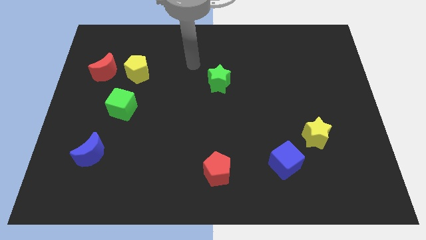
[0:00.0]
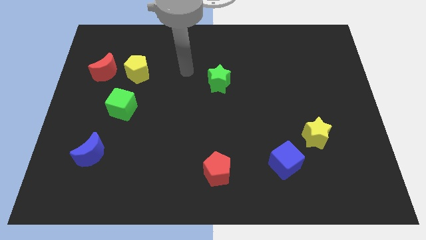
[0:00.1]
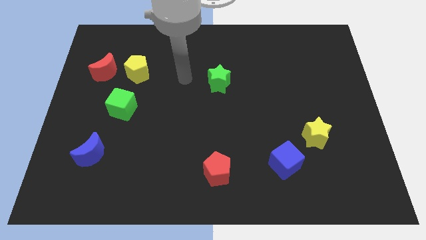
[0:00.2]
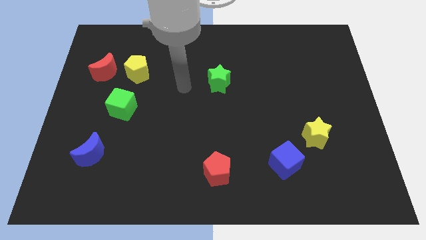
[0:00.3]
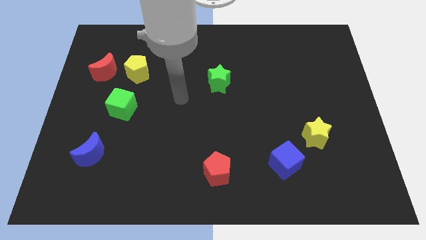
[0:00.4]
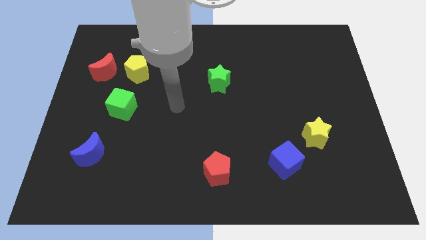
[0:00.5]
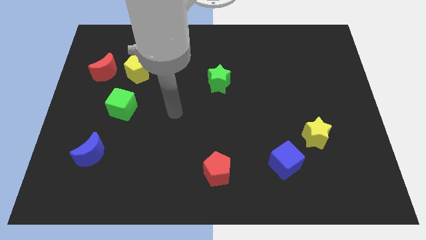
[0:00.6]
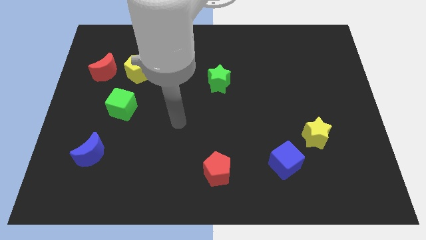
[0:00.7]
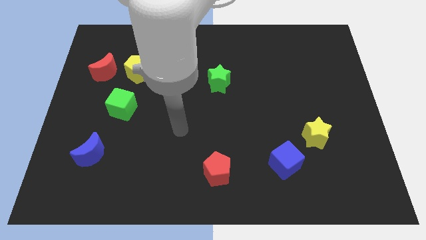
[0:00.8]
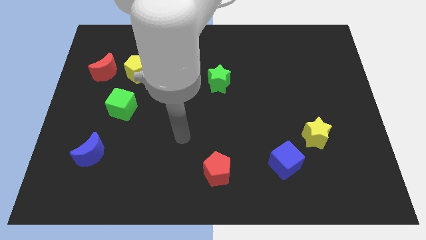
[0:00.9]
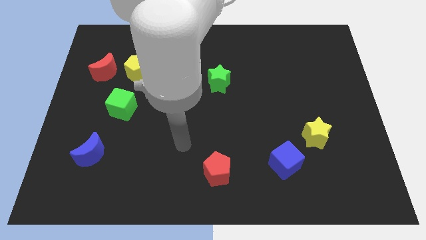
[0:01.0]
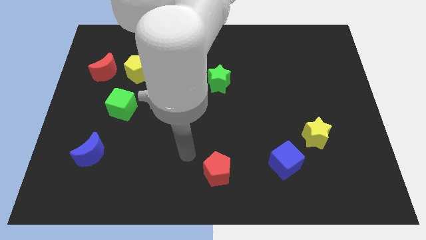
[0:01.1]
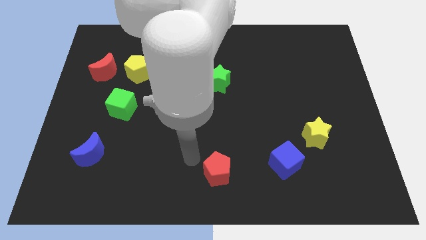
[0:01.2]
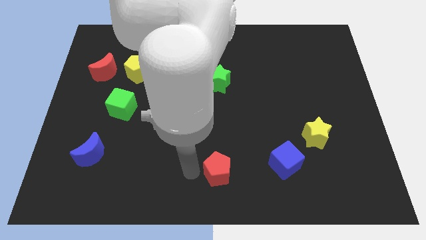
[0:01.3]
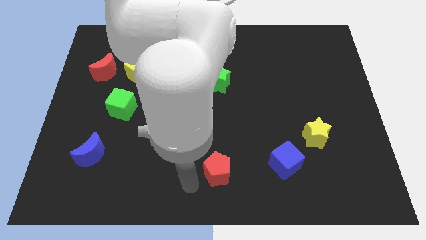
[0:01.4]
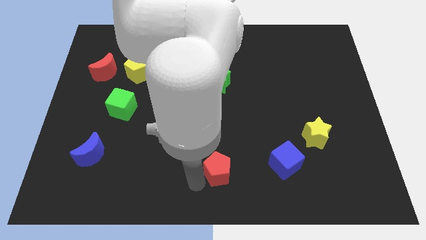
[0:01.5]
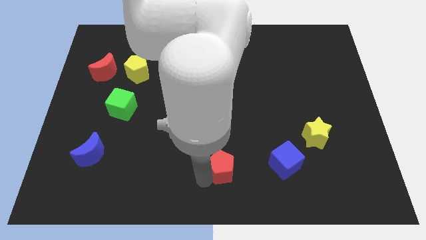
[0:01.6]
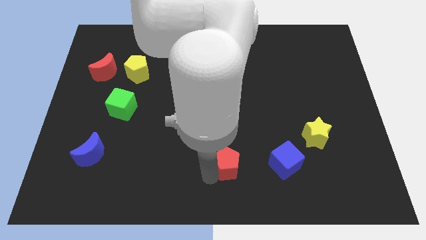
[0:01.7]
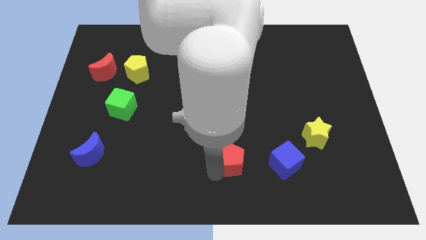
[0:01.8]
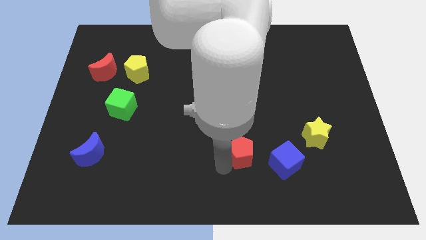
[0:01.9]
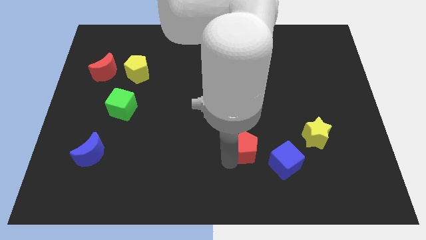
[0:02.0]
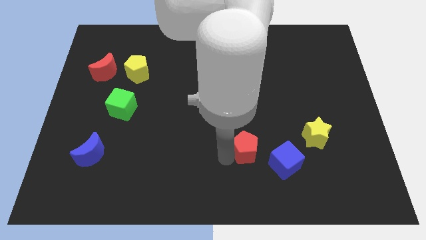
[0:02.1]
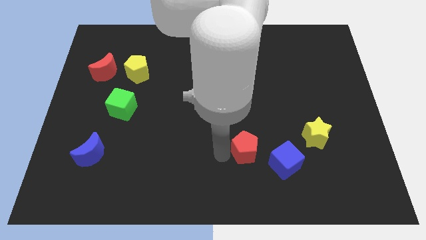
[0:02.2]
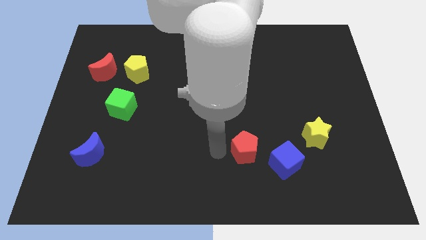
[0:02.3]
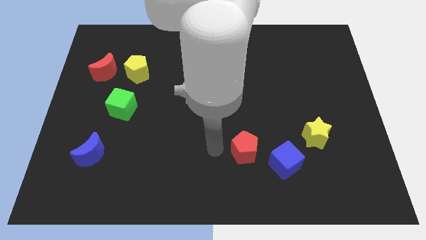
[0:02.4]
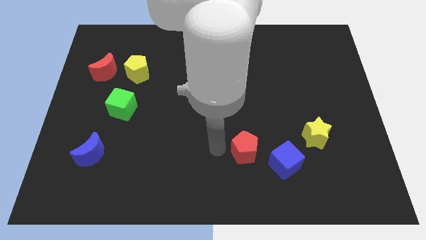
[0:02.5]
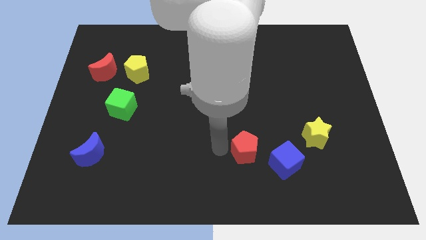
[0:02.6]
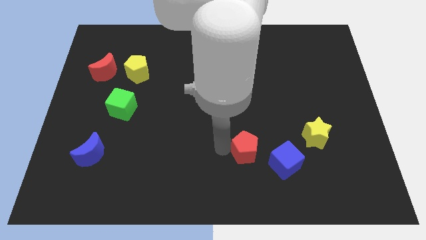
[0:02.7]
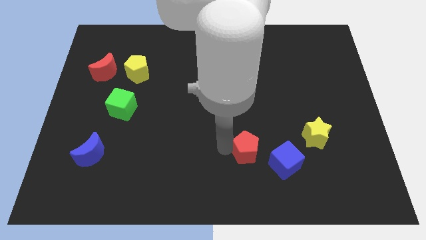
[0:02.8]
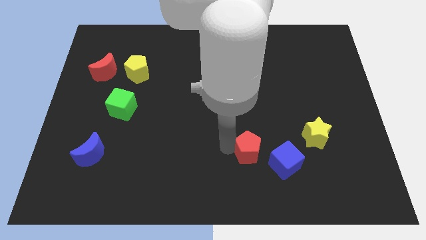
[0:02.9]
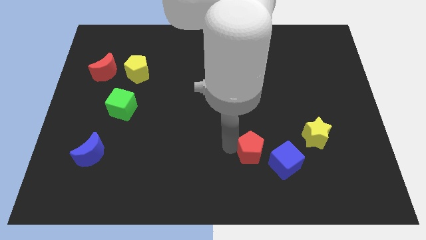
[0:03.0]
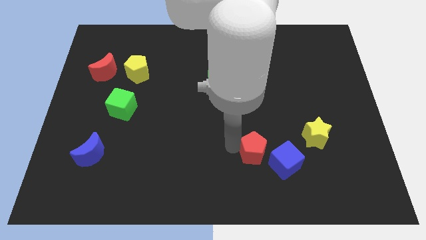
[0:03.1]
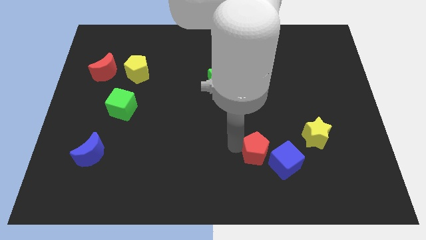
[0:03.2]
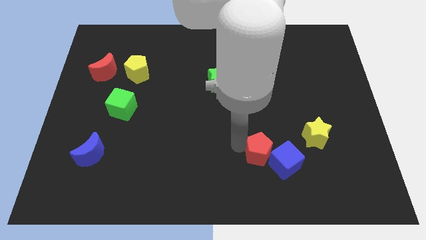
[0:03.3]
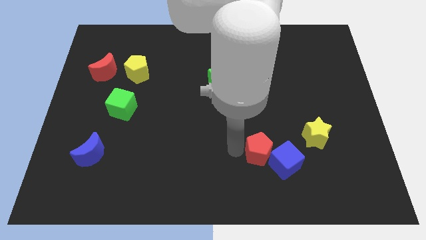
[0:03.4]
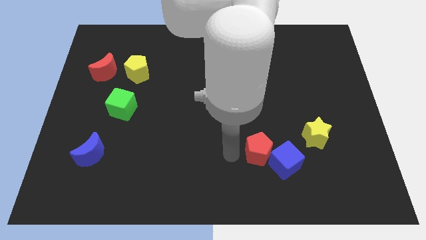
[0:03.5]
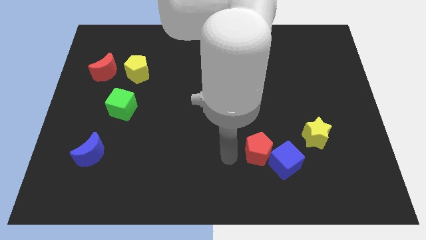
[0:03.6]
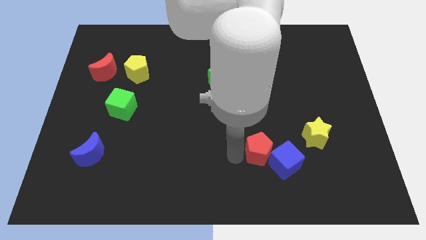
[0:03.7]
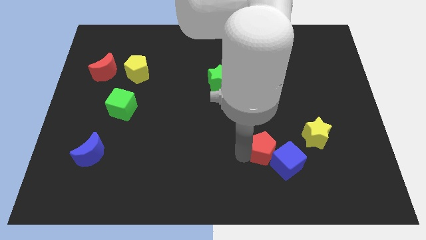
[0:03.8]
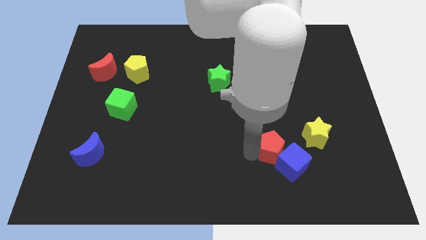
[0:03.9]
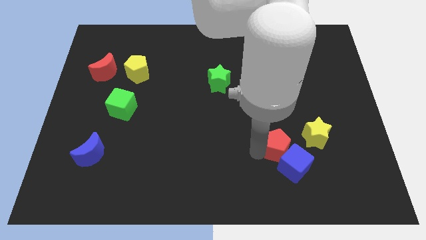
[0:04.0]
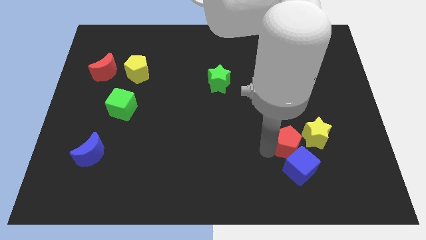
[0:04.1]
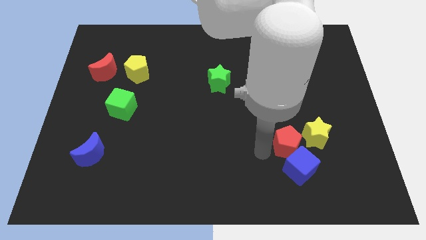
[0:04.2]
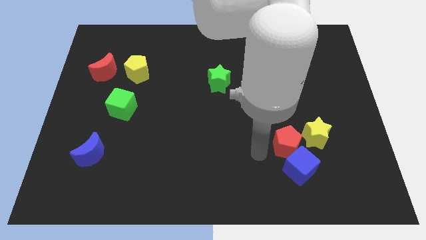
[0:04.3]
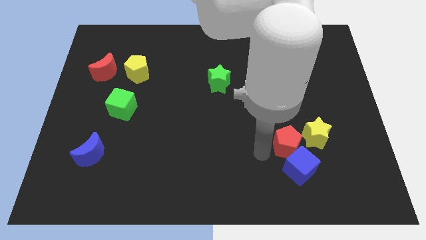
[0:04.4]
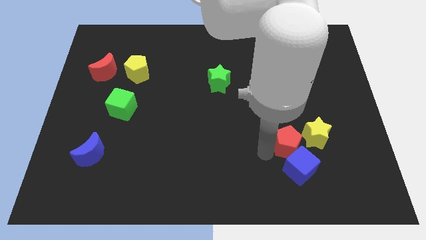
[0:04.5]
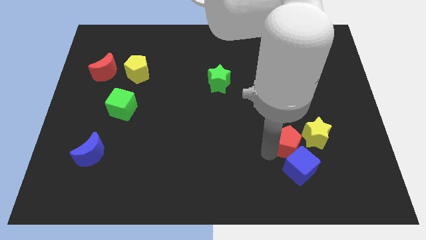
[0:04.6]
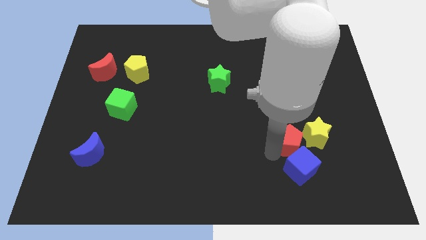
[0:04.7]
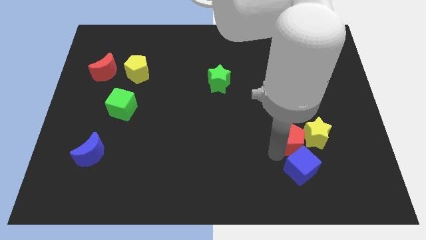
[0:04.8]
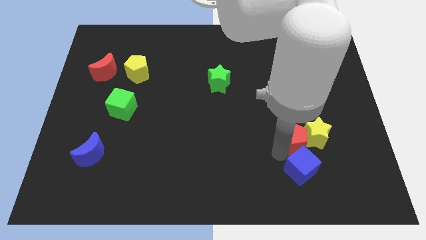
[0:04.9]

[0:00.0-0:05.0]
push the red pentagon close to the yellow star

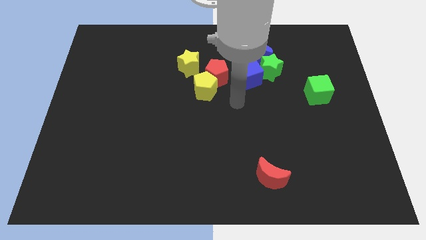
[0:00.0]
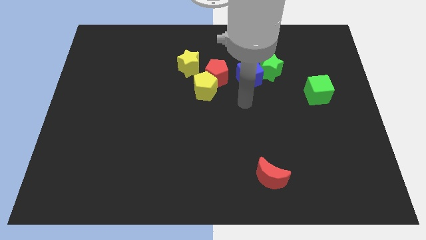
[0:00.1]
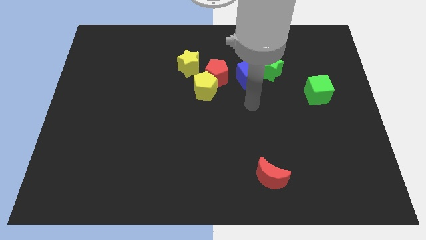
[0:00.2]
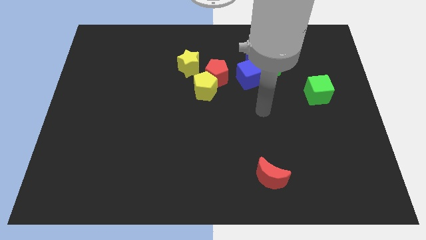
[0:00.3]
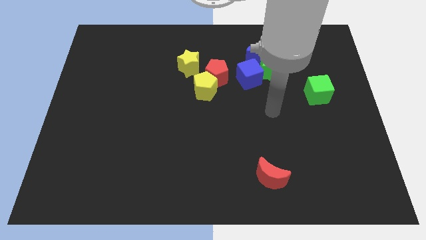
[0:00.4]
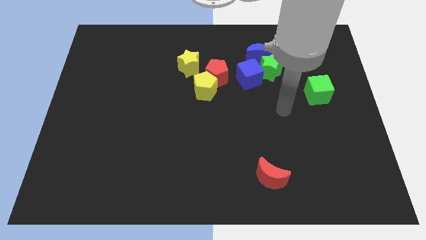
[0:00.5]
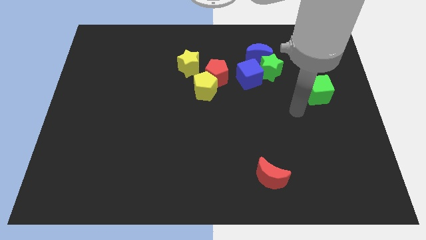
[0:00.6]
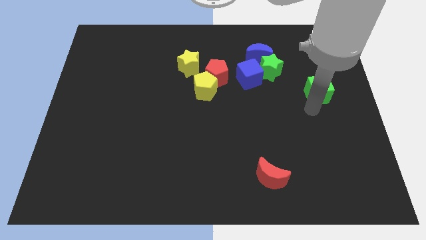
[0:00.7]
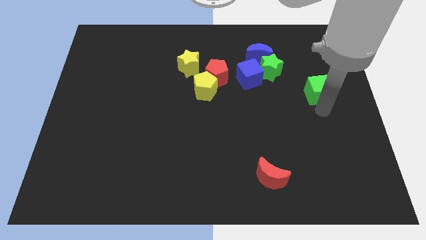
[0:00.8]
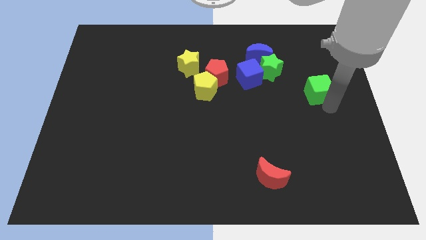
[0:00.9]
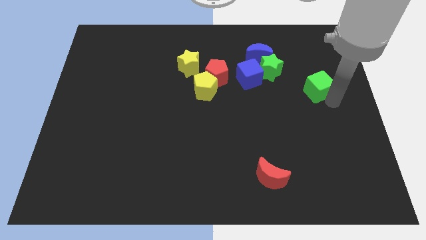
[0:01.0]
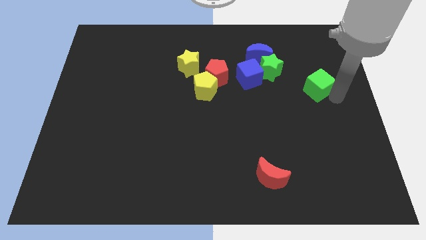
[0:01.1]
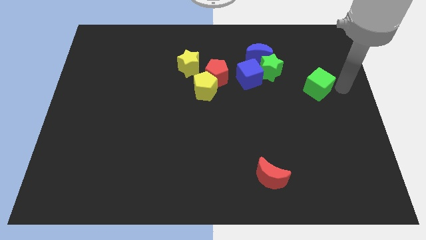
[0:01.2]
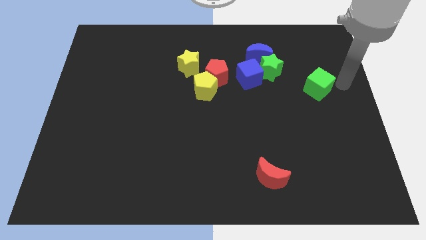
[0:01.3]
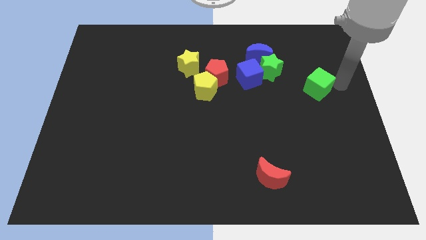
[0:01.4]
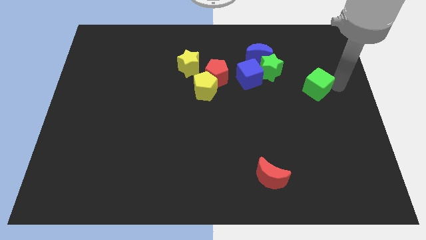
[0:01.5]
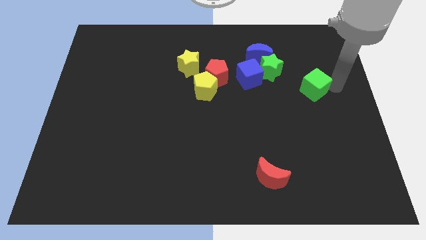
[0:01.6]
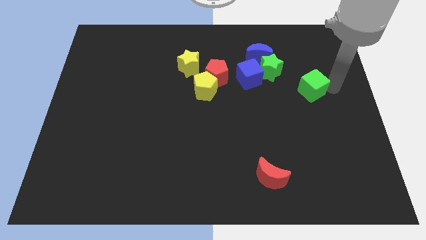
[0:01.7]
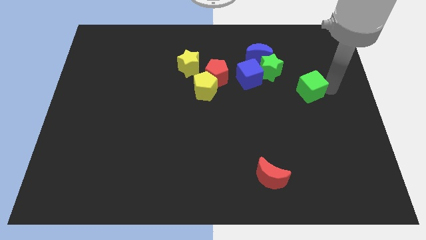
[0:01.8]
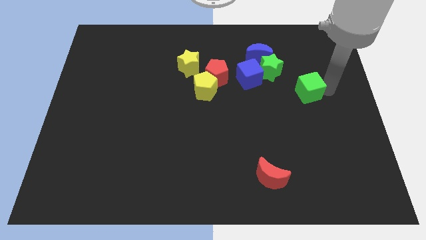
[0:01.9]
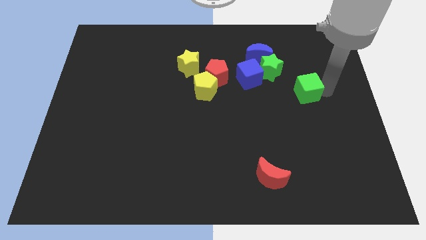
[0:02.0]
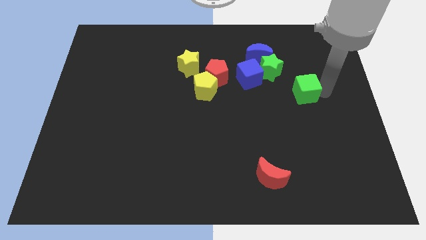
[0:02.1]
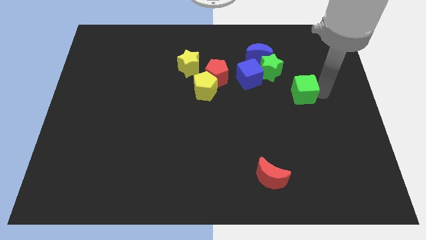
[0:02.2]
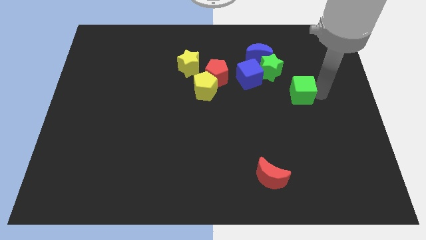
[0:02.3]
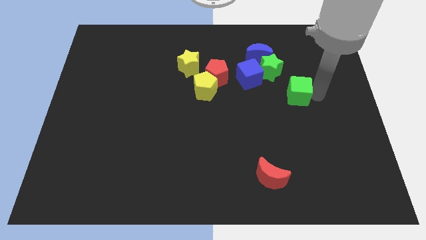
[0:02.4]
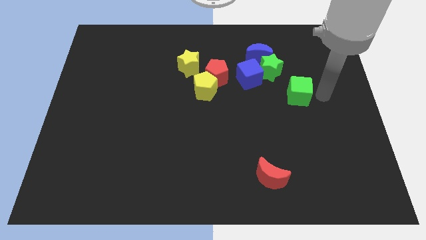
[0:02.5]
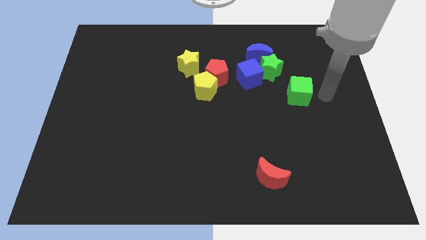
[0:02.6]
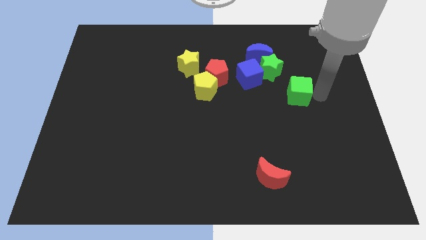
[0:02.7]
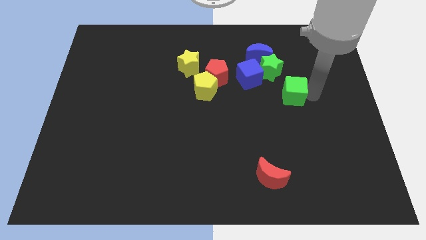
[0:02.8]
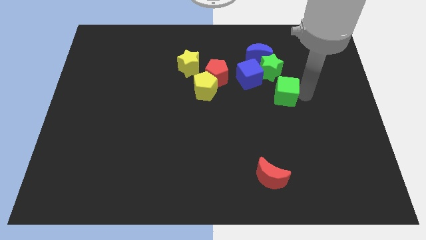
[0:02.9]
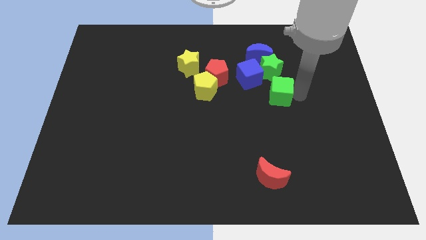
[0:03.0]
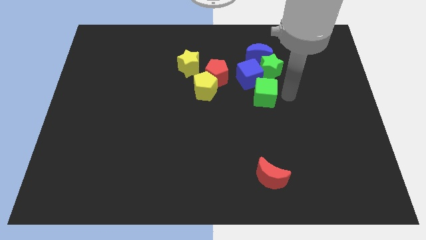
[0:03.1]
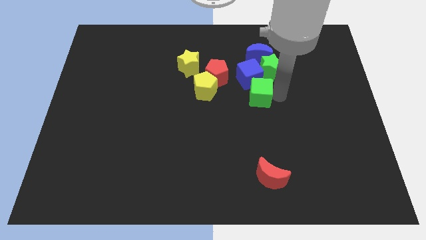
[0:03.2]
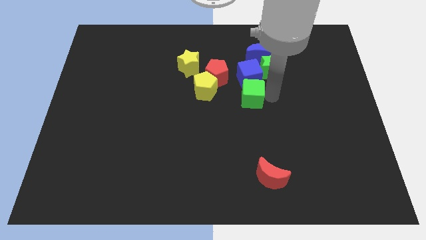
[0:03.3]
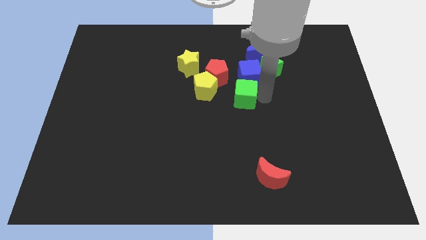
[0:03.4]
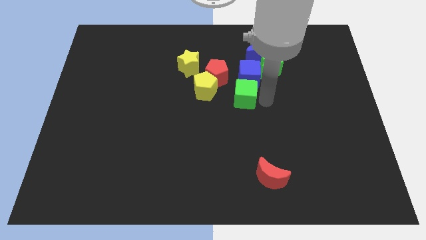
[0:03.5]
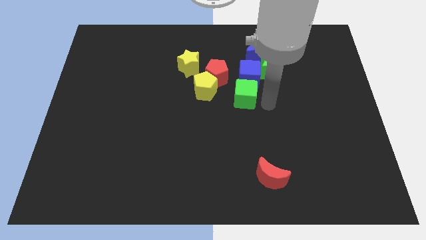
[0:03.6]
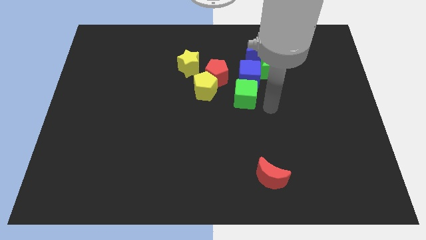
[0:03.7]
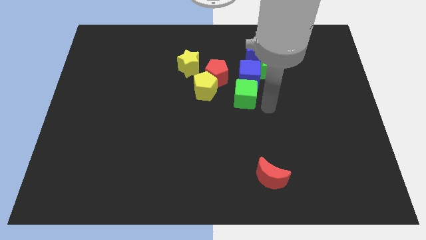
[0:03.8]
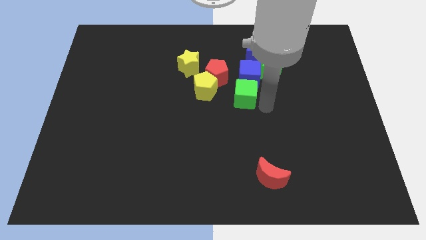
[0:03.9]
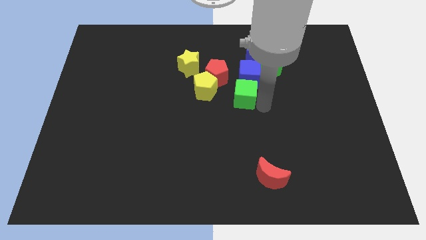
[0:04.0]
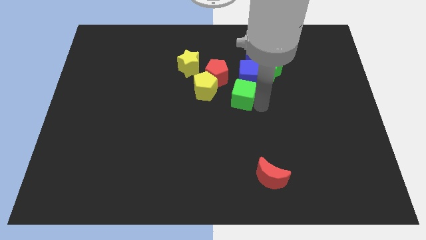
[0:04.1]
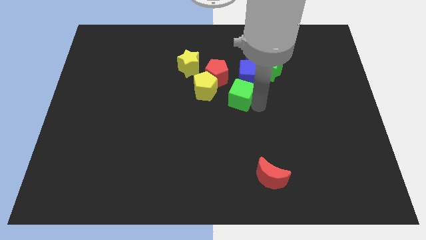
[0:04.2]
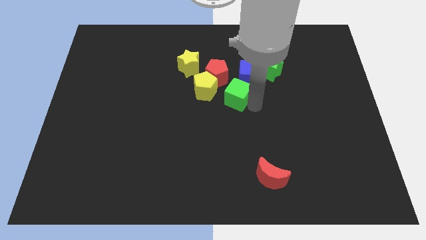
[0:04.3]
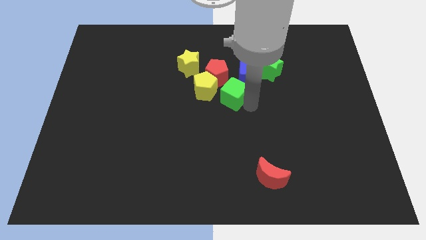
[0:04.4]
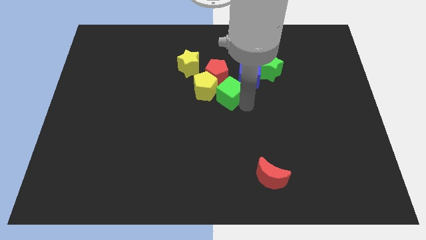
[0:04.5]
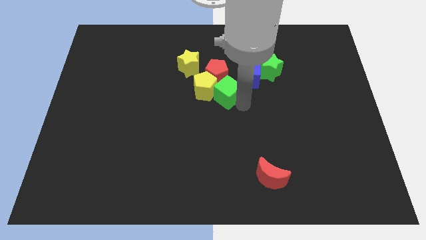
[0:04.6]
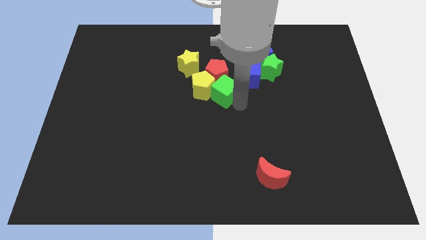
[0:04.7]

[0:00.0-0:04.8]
move the green cube close to the red pentagon
